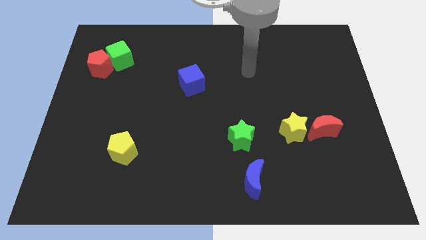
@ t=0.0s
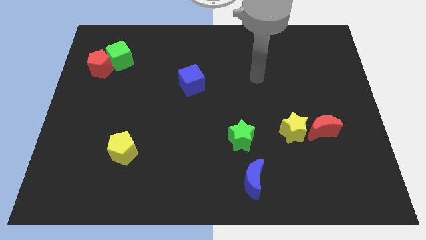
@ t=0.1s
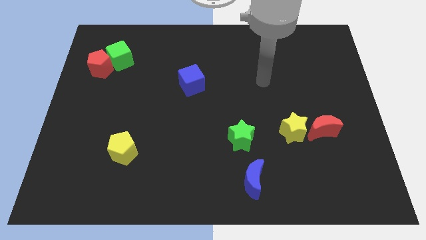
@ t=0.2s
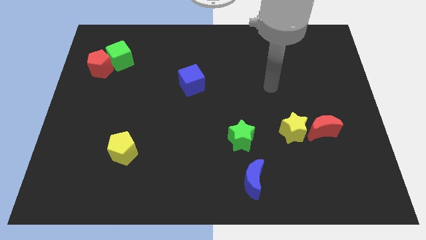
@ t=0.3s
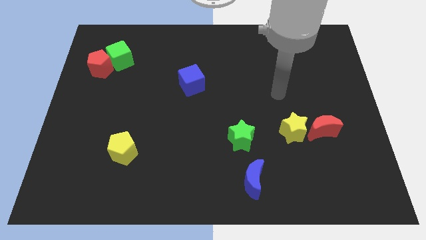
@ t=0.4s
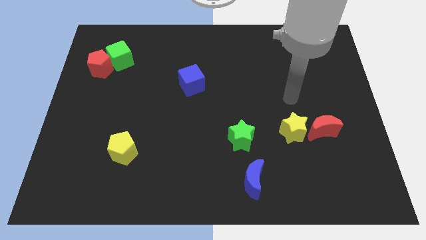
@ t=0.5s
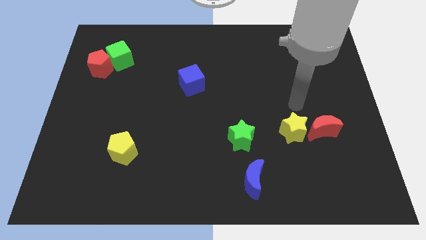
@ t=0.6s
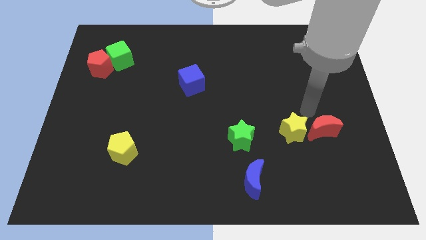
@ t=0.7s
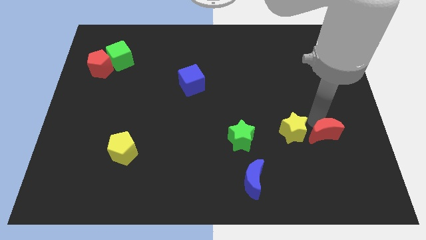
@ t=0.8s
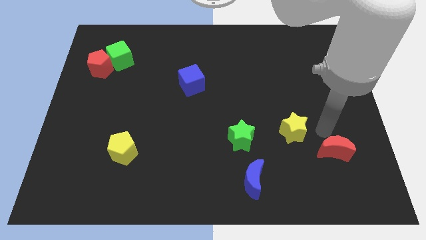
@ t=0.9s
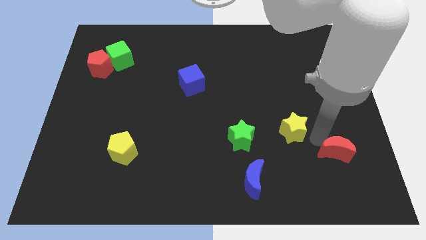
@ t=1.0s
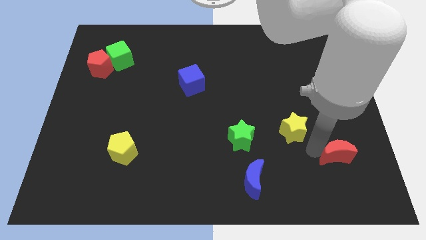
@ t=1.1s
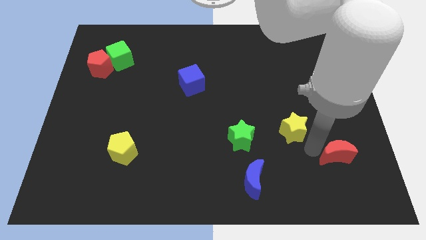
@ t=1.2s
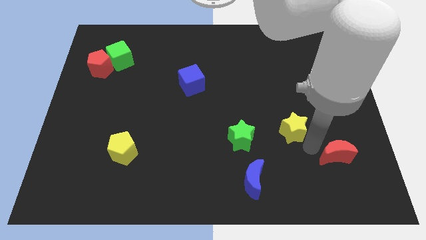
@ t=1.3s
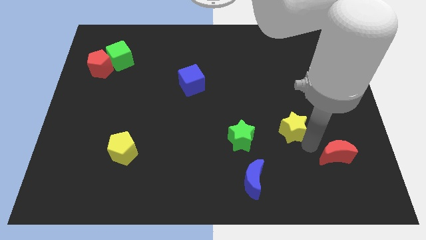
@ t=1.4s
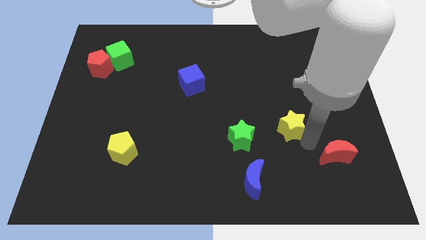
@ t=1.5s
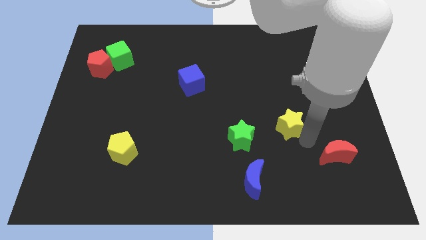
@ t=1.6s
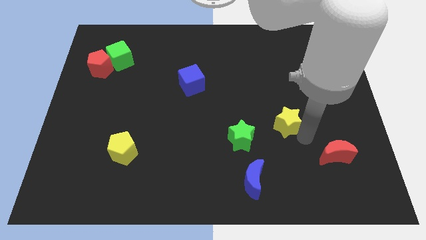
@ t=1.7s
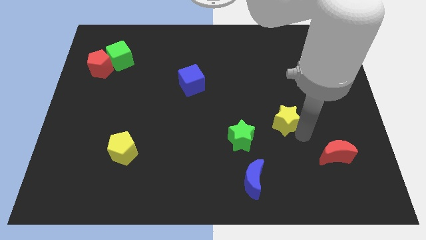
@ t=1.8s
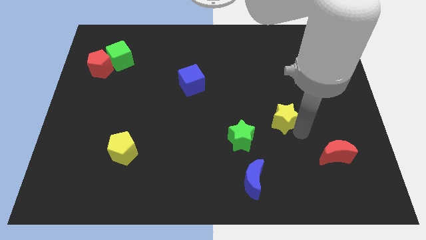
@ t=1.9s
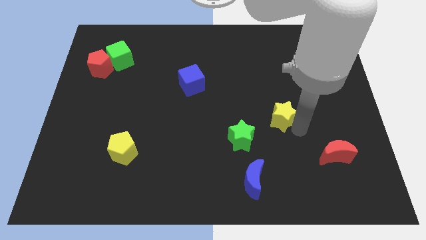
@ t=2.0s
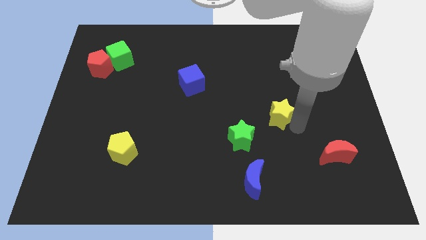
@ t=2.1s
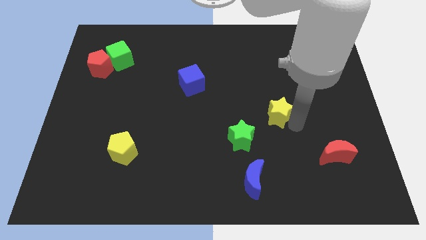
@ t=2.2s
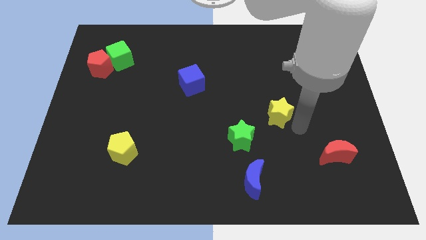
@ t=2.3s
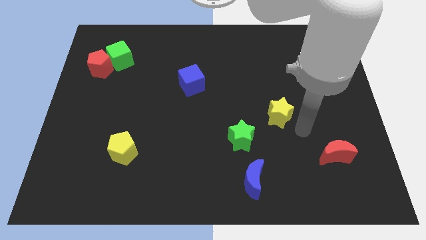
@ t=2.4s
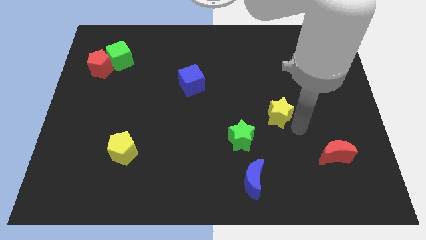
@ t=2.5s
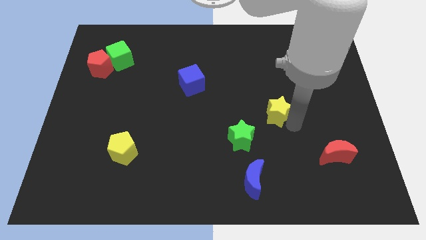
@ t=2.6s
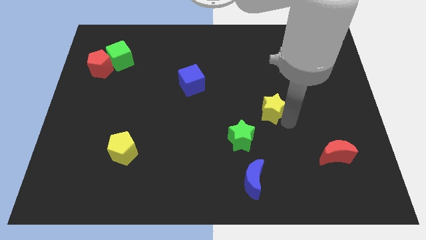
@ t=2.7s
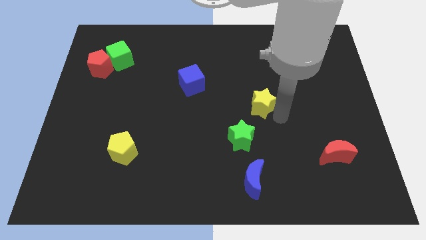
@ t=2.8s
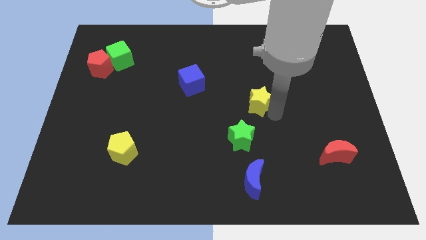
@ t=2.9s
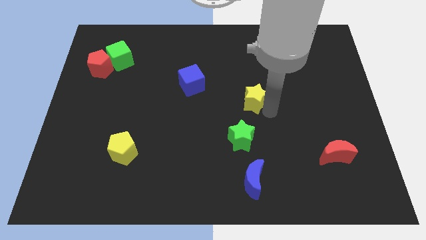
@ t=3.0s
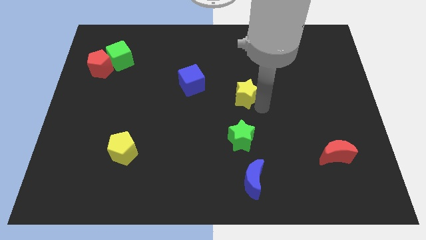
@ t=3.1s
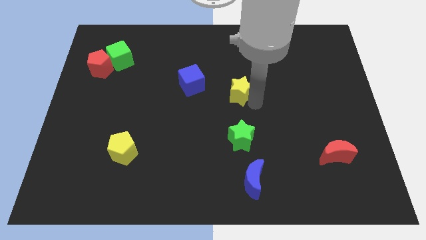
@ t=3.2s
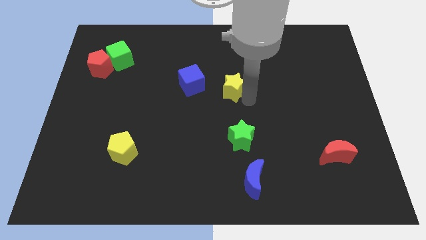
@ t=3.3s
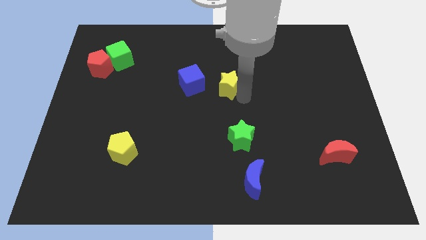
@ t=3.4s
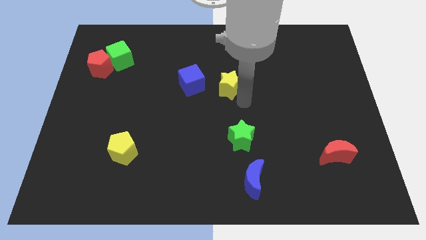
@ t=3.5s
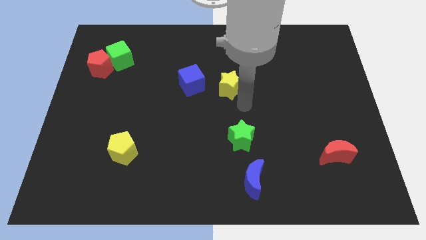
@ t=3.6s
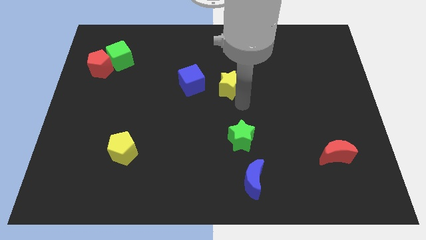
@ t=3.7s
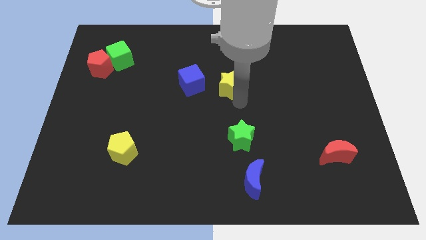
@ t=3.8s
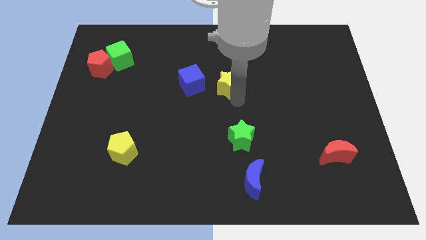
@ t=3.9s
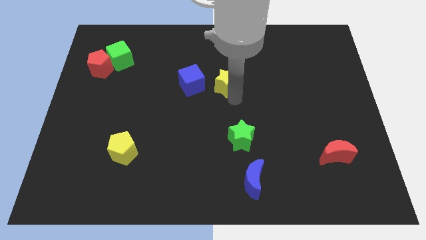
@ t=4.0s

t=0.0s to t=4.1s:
slide the yellow star upwards and then to the left

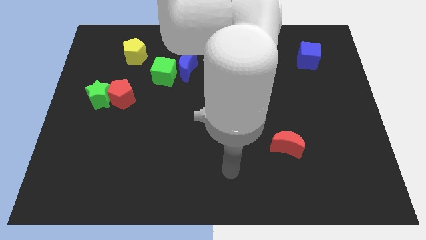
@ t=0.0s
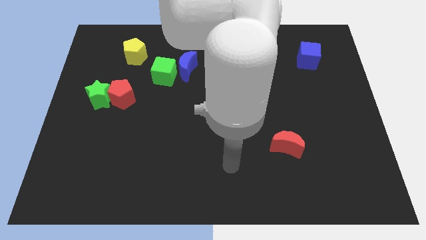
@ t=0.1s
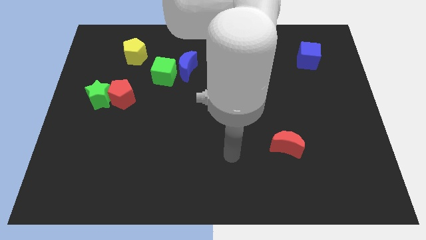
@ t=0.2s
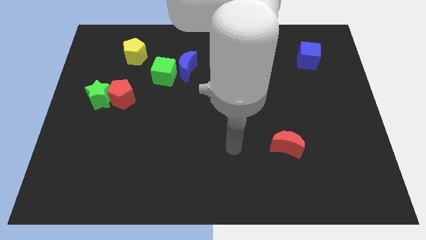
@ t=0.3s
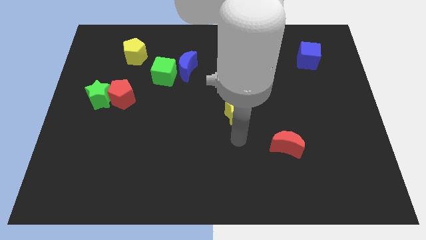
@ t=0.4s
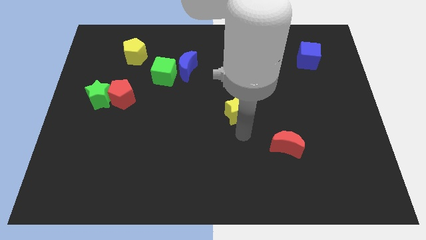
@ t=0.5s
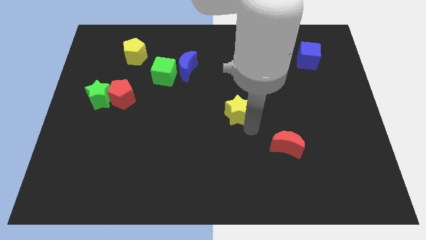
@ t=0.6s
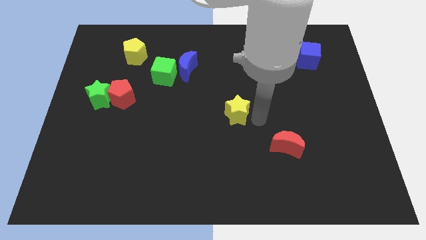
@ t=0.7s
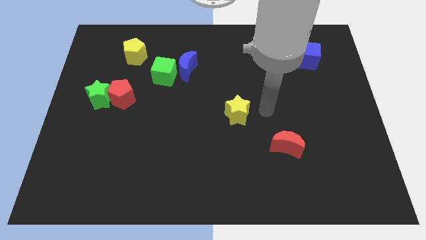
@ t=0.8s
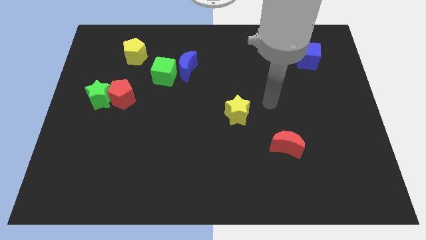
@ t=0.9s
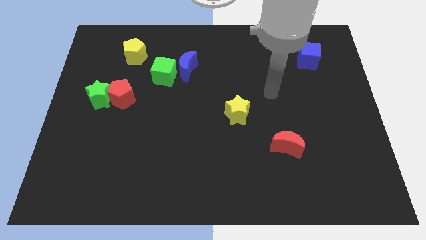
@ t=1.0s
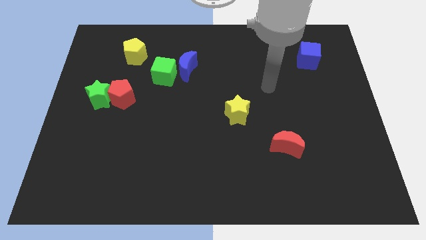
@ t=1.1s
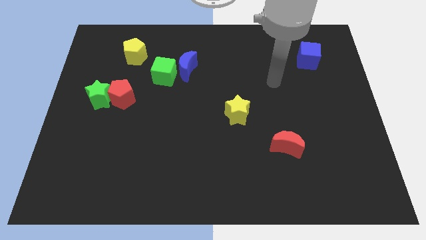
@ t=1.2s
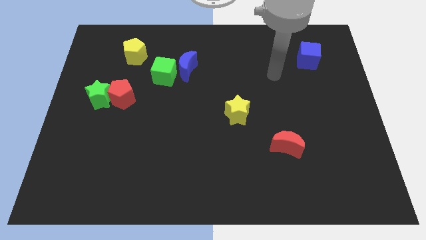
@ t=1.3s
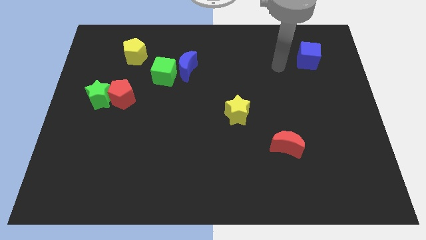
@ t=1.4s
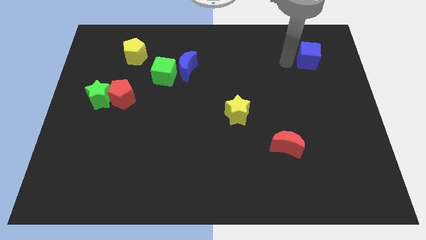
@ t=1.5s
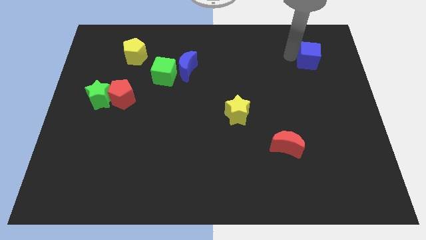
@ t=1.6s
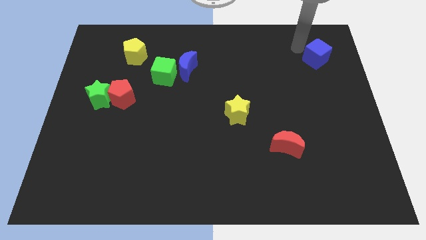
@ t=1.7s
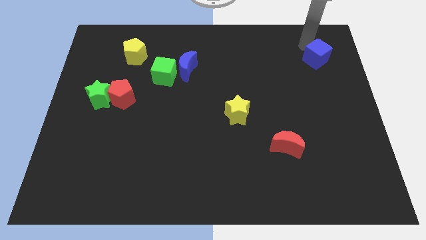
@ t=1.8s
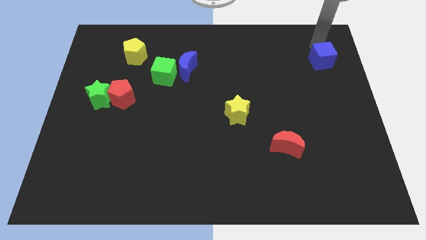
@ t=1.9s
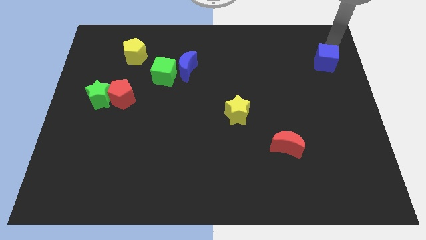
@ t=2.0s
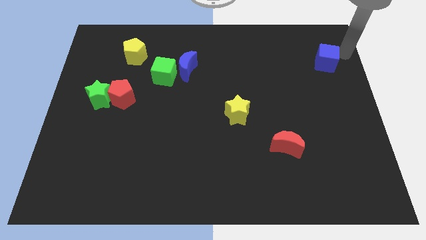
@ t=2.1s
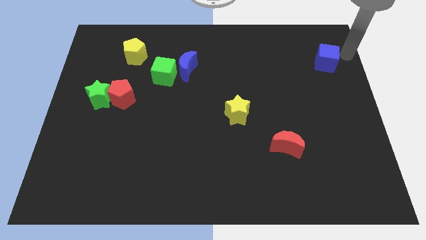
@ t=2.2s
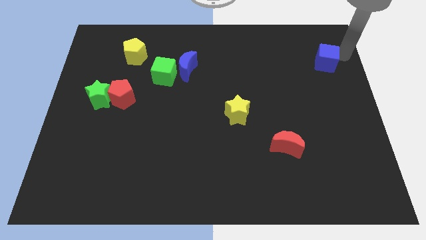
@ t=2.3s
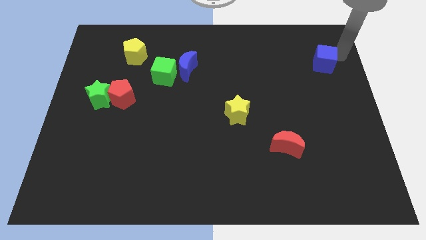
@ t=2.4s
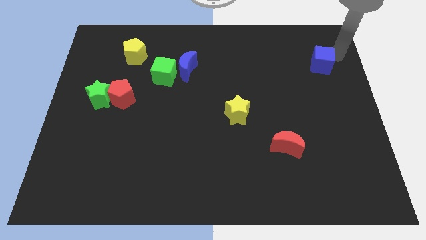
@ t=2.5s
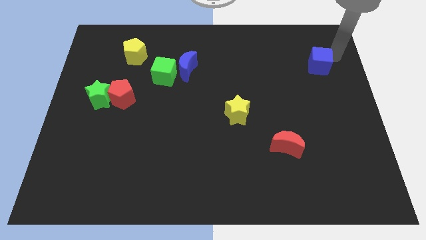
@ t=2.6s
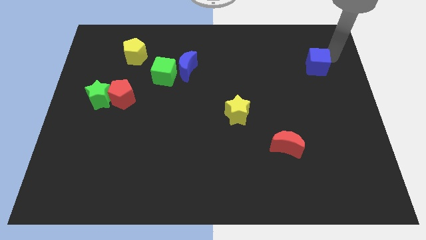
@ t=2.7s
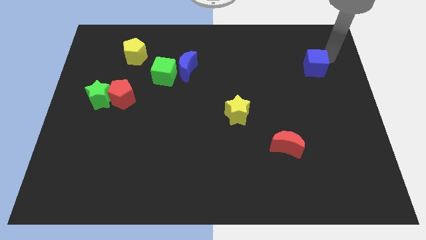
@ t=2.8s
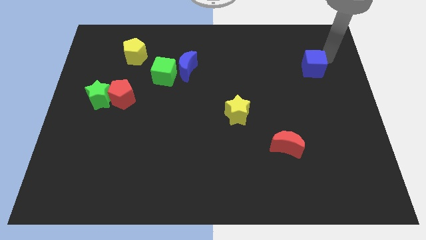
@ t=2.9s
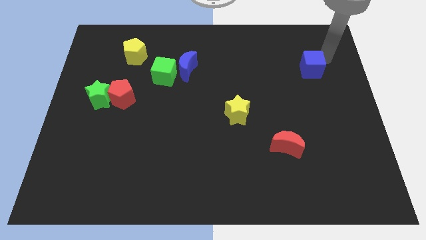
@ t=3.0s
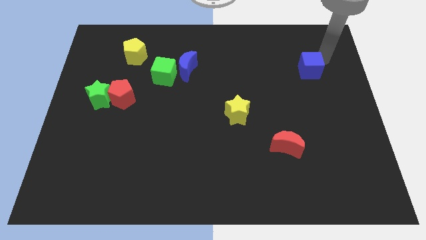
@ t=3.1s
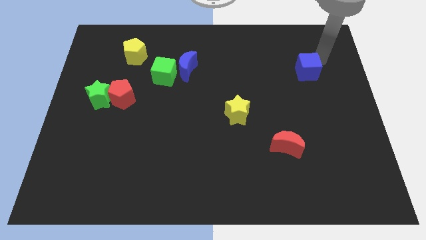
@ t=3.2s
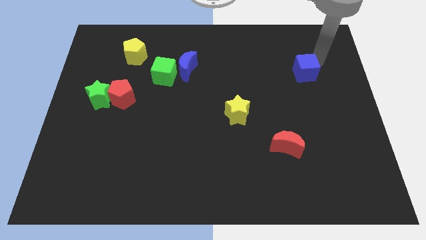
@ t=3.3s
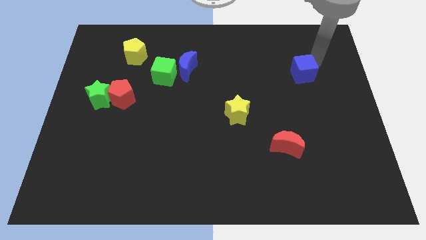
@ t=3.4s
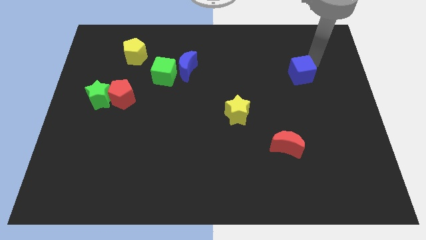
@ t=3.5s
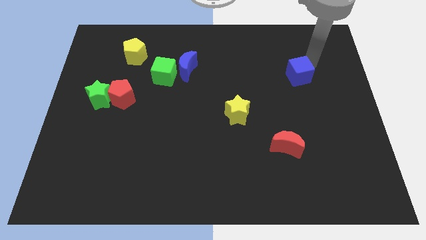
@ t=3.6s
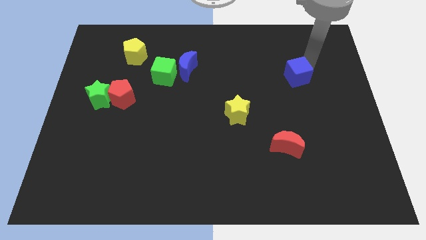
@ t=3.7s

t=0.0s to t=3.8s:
slide the blue cube down and to the left a bit
